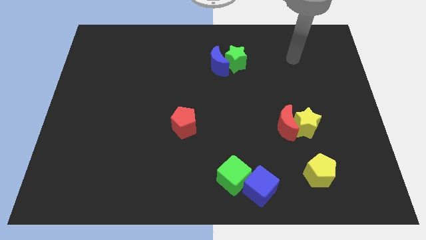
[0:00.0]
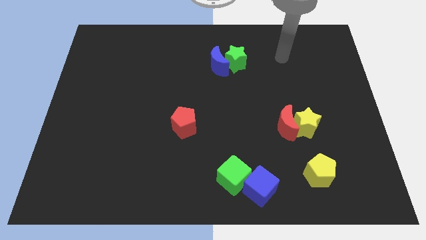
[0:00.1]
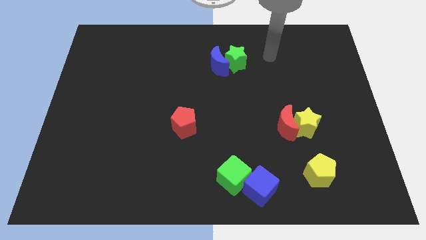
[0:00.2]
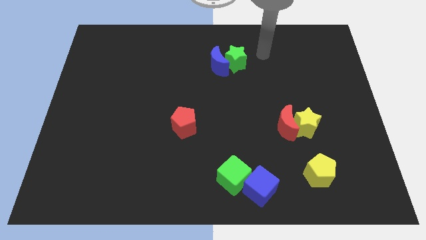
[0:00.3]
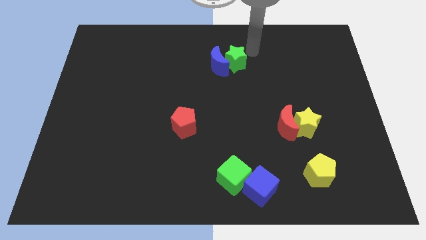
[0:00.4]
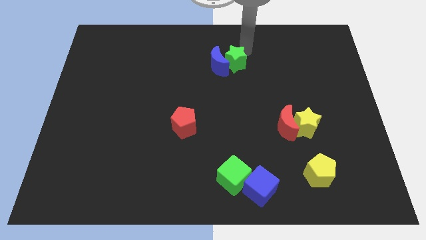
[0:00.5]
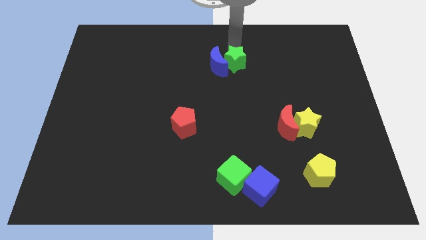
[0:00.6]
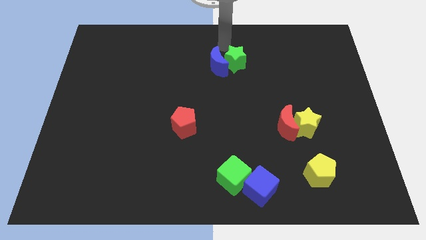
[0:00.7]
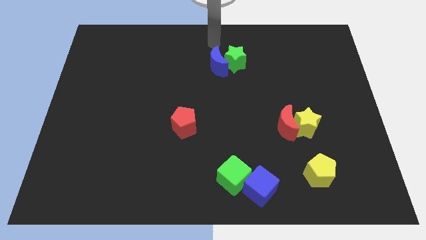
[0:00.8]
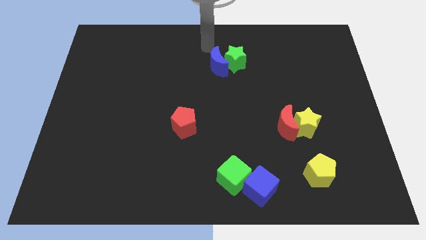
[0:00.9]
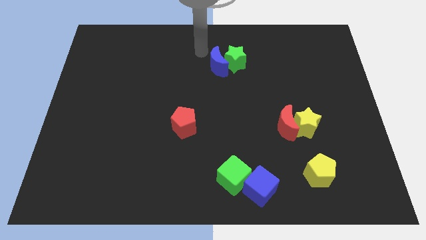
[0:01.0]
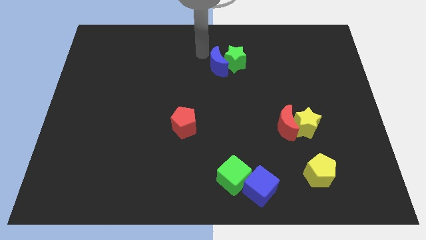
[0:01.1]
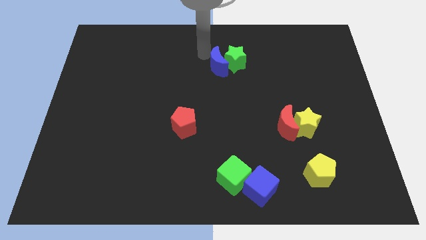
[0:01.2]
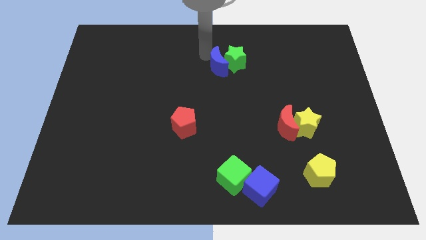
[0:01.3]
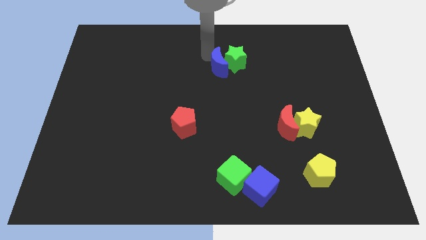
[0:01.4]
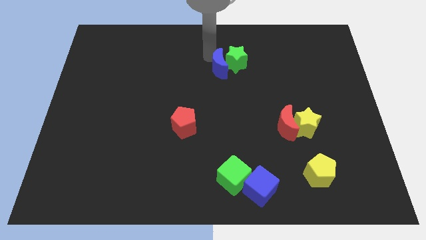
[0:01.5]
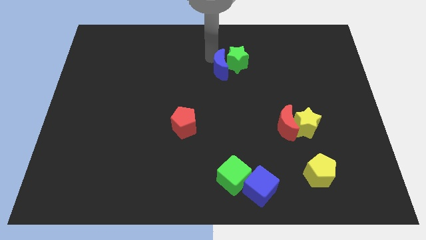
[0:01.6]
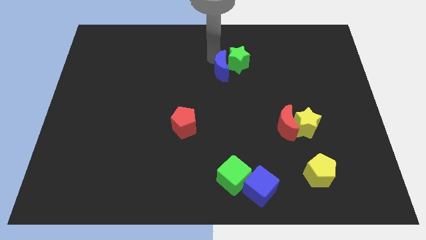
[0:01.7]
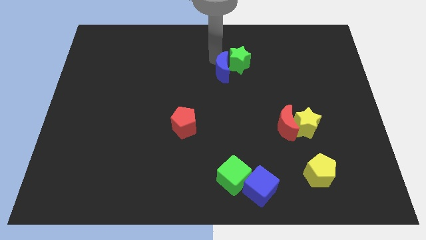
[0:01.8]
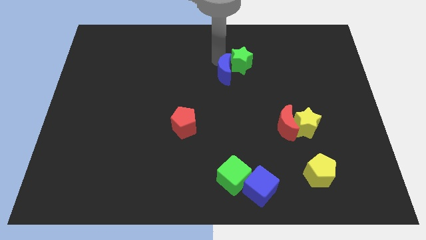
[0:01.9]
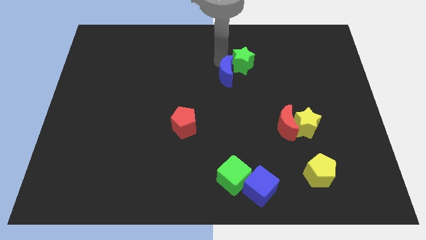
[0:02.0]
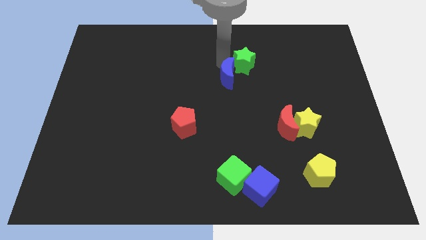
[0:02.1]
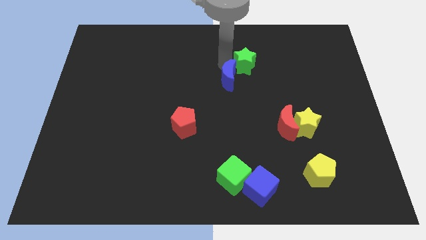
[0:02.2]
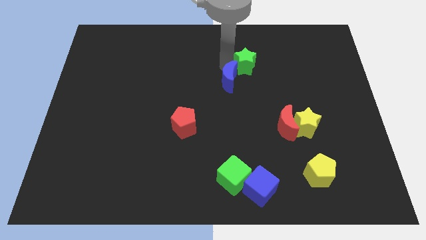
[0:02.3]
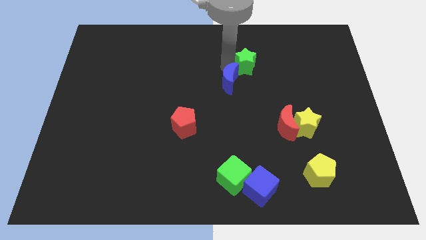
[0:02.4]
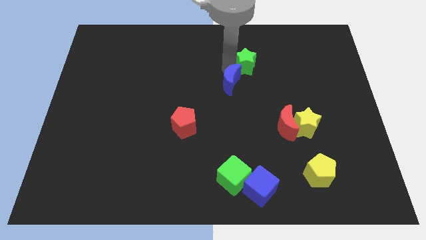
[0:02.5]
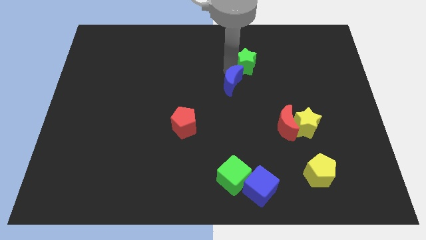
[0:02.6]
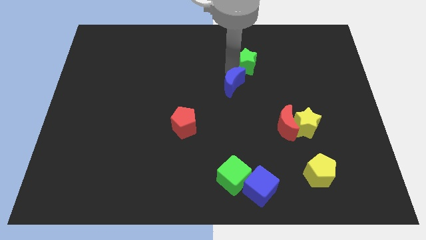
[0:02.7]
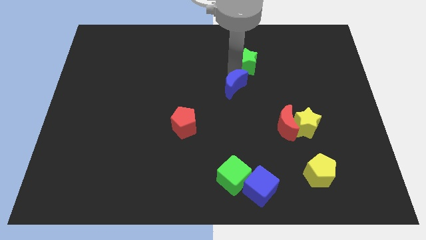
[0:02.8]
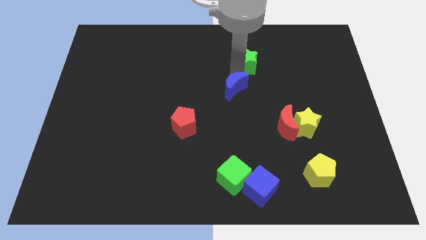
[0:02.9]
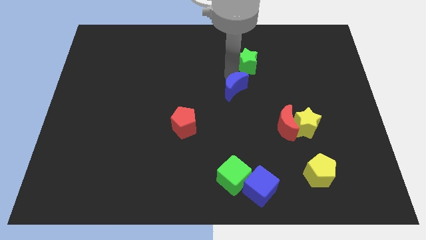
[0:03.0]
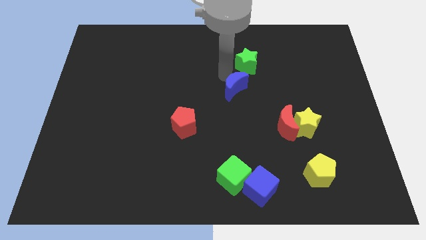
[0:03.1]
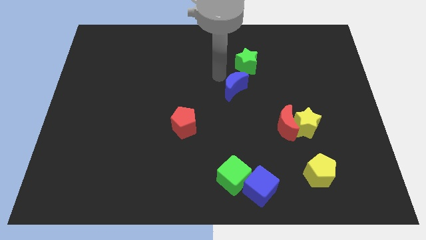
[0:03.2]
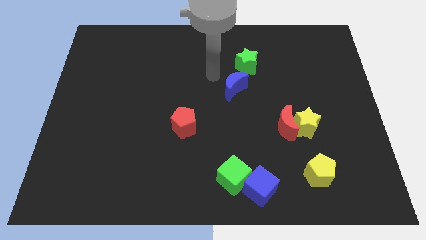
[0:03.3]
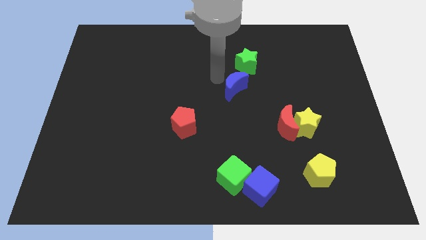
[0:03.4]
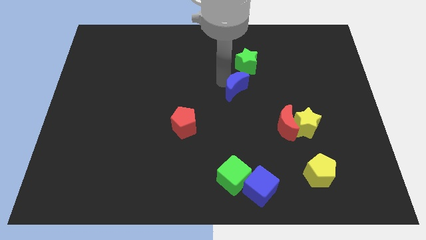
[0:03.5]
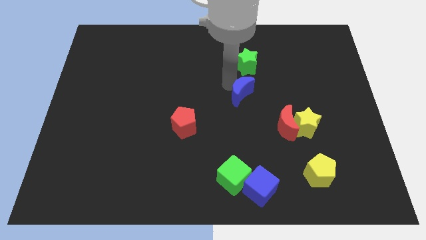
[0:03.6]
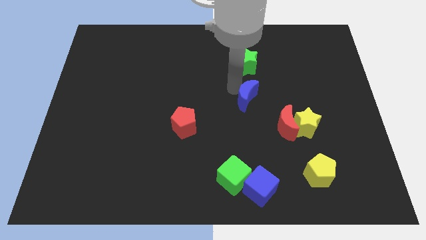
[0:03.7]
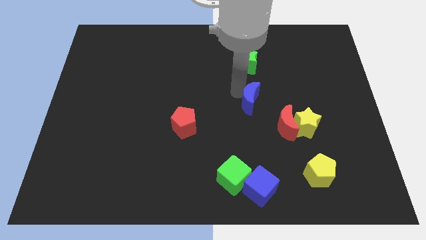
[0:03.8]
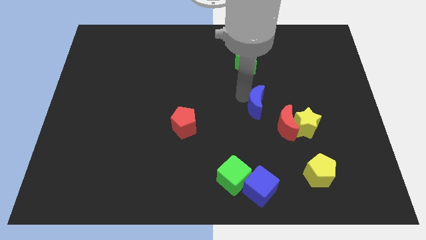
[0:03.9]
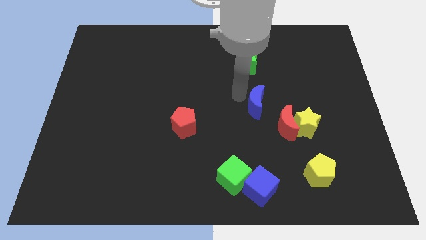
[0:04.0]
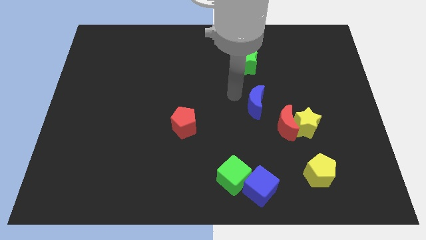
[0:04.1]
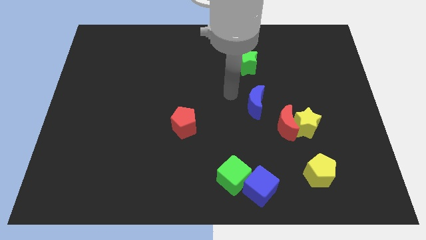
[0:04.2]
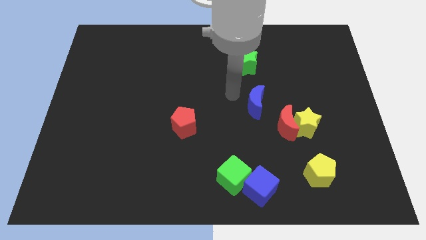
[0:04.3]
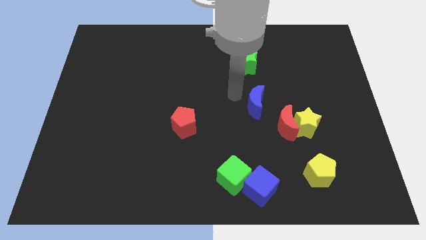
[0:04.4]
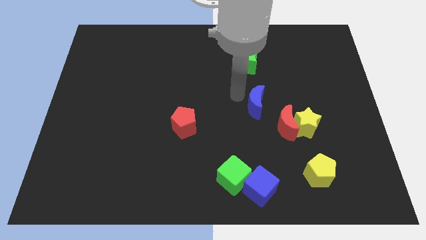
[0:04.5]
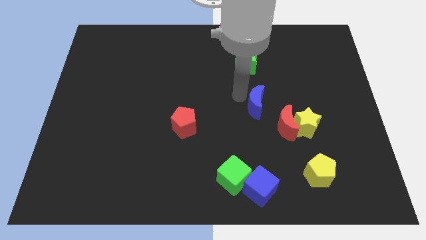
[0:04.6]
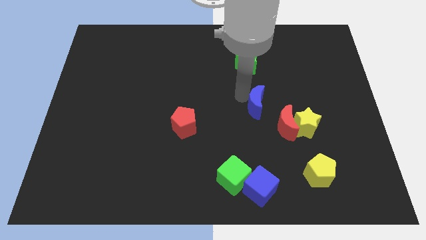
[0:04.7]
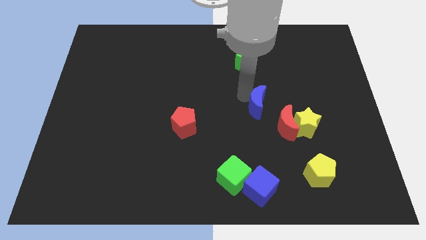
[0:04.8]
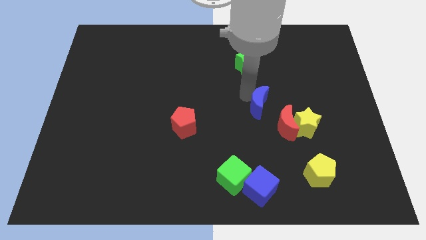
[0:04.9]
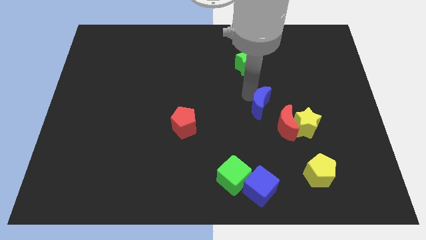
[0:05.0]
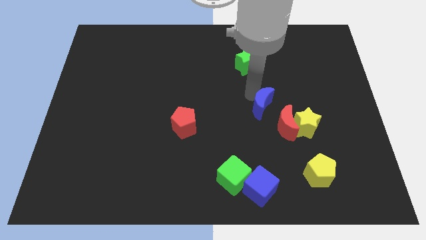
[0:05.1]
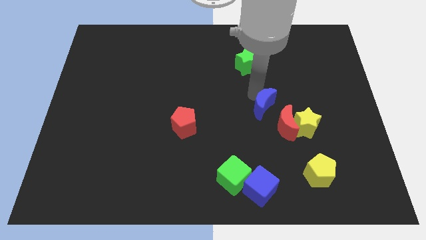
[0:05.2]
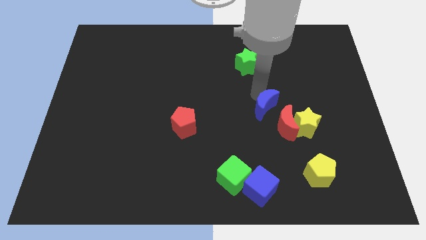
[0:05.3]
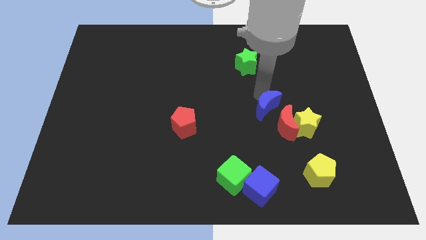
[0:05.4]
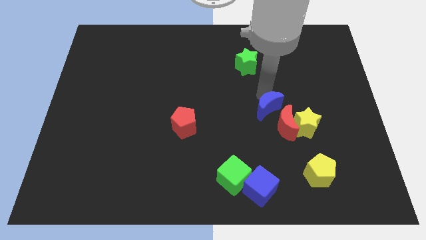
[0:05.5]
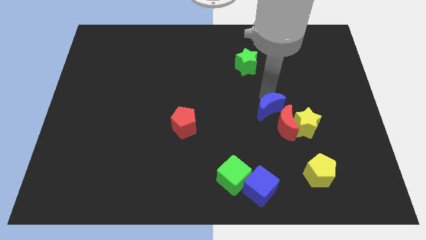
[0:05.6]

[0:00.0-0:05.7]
push the blue moon towards the red moon

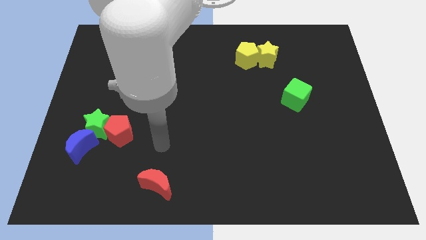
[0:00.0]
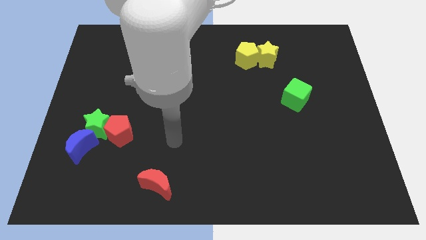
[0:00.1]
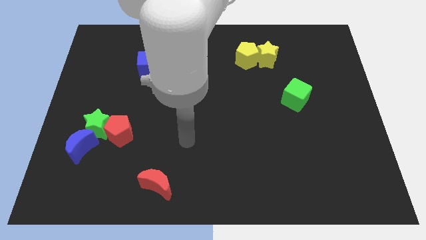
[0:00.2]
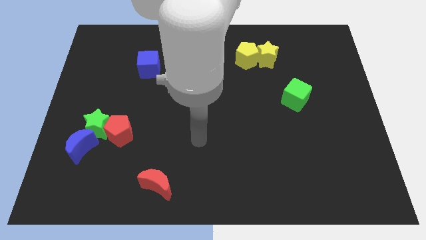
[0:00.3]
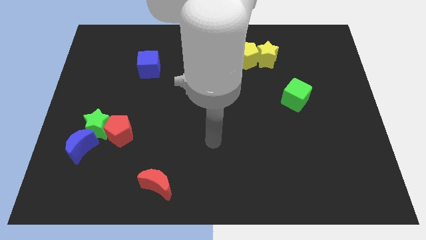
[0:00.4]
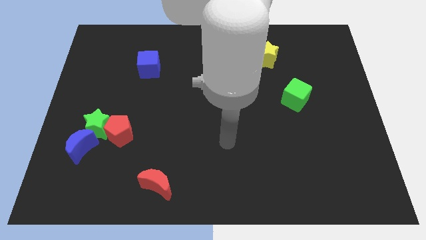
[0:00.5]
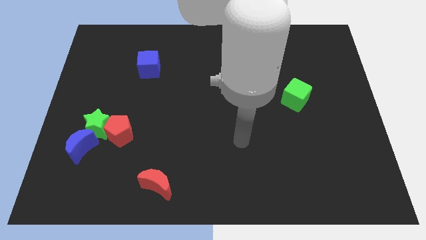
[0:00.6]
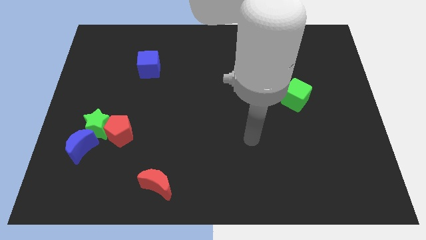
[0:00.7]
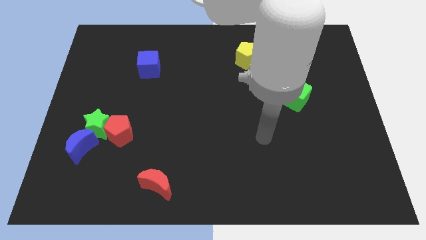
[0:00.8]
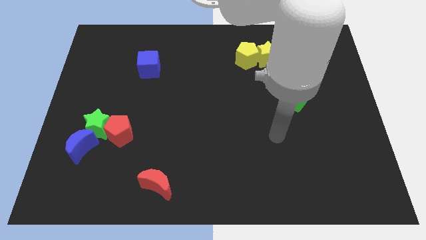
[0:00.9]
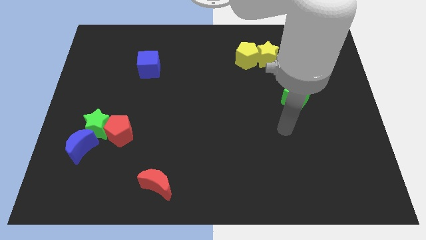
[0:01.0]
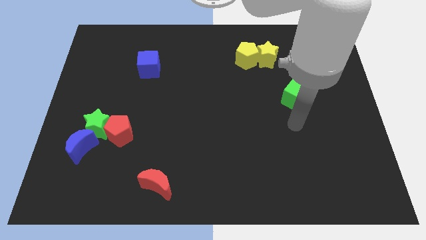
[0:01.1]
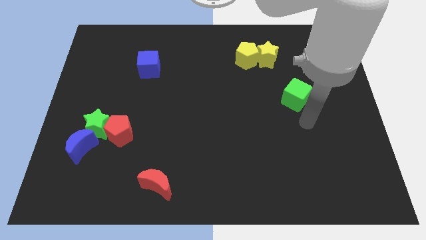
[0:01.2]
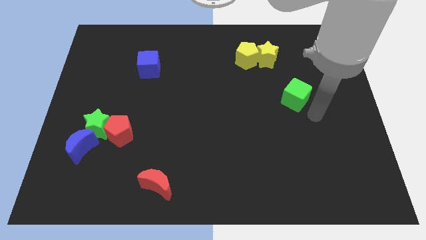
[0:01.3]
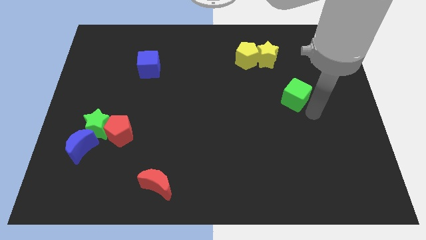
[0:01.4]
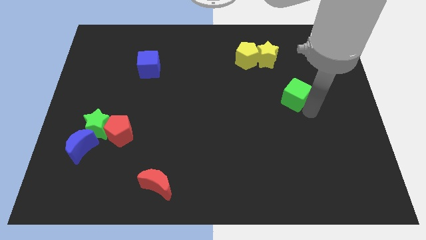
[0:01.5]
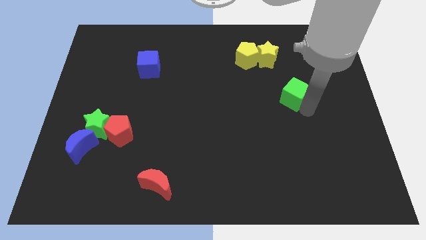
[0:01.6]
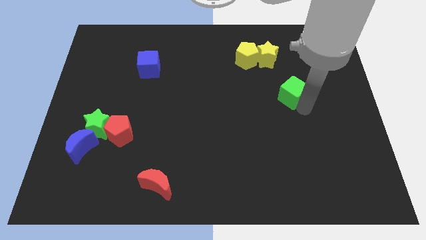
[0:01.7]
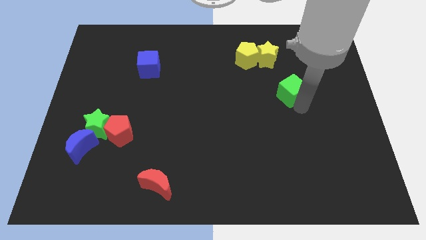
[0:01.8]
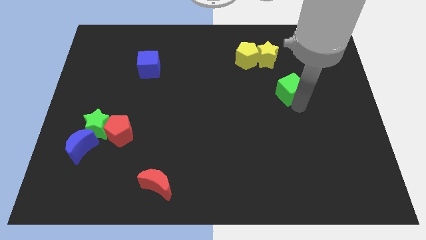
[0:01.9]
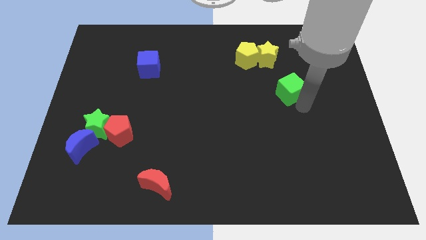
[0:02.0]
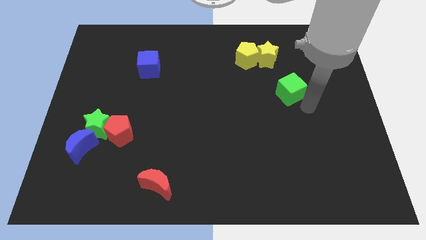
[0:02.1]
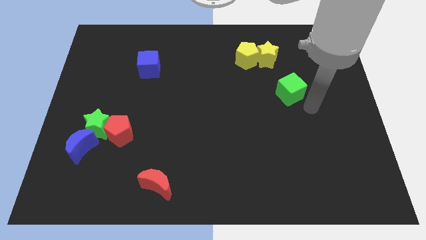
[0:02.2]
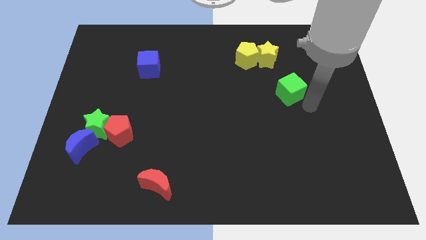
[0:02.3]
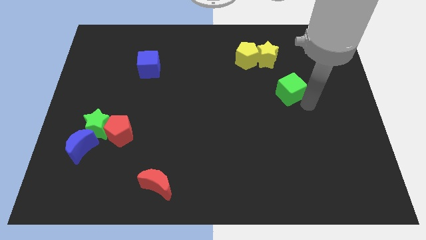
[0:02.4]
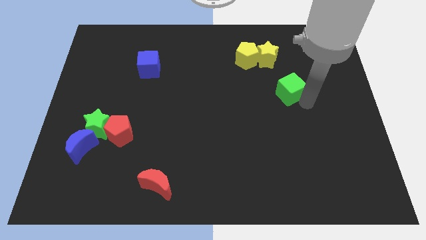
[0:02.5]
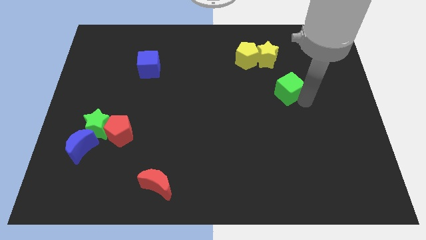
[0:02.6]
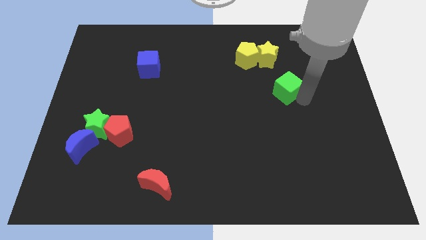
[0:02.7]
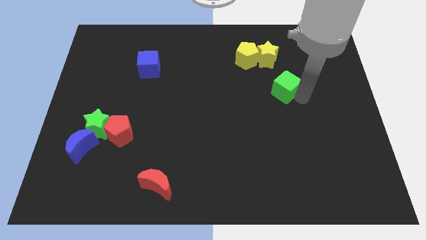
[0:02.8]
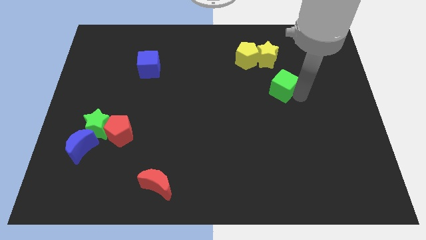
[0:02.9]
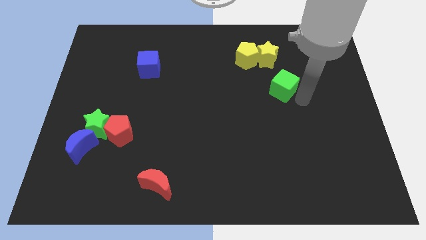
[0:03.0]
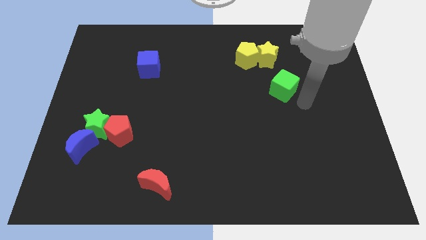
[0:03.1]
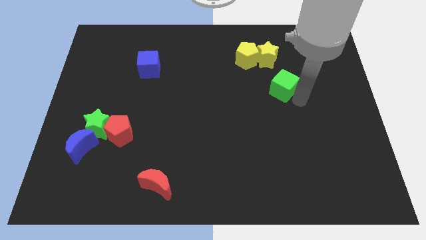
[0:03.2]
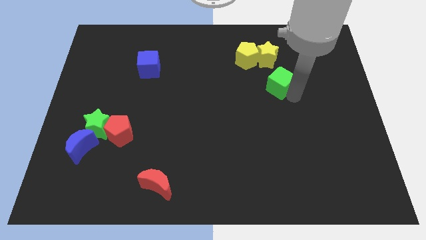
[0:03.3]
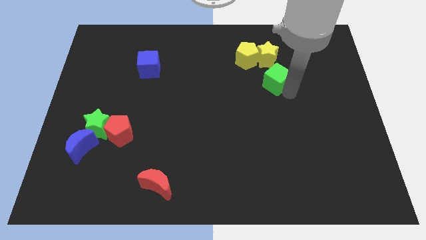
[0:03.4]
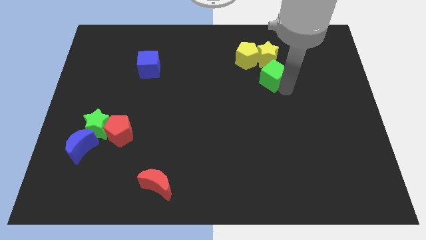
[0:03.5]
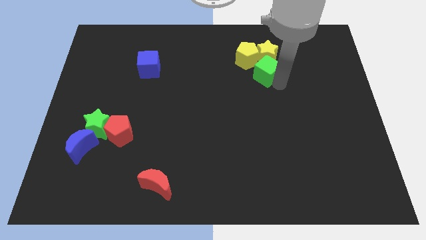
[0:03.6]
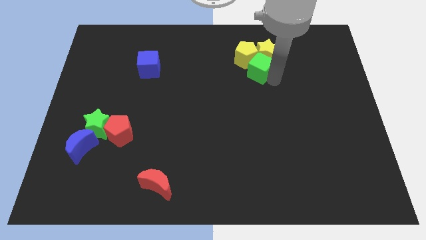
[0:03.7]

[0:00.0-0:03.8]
put the green cube next to the yellow pentagon
